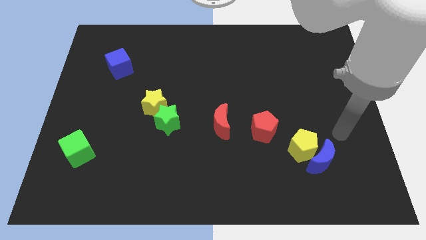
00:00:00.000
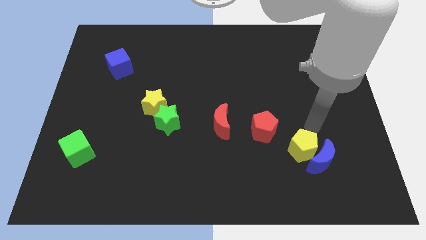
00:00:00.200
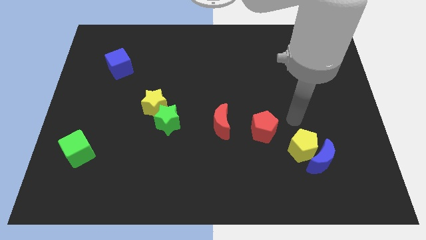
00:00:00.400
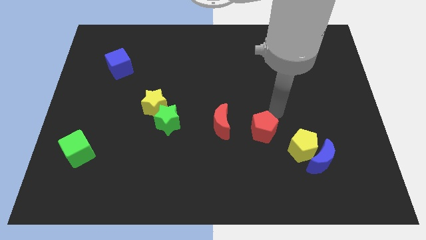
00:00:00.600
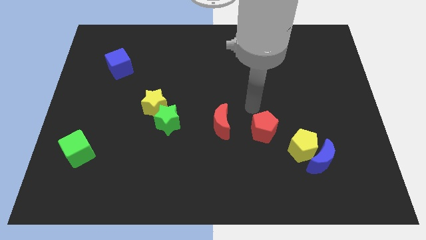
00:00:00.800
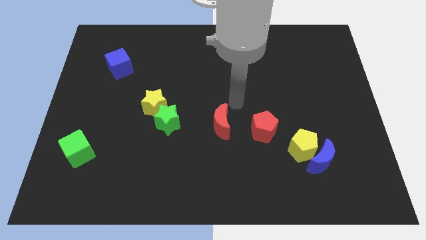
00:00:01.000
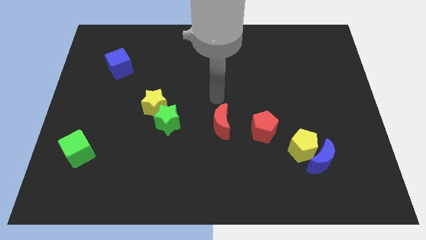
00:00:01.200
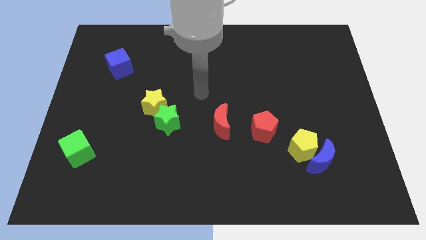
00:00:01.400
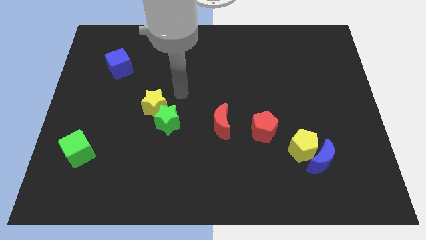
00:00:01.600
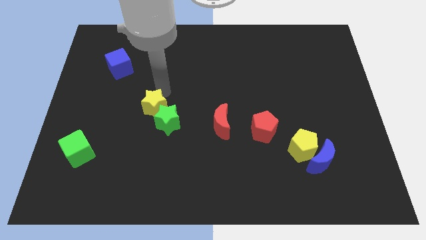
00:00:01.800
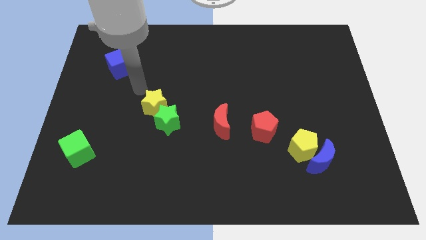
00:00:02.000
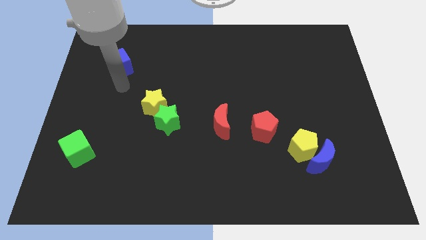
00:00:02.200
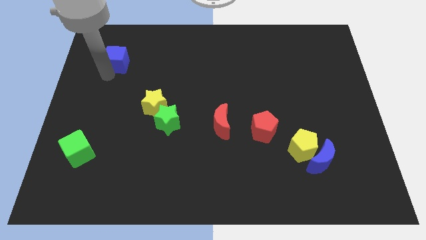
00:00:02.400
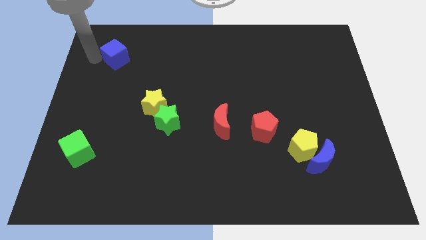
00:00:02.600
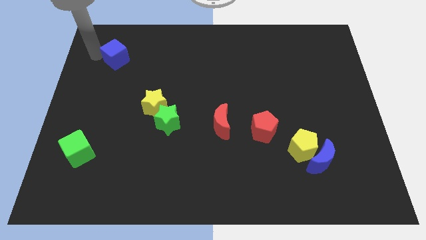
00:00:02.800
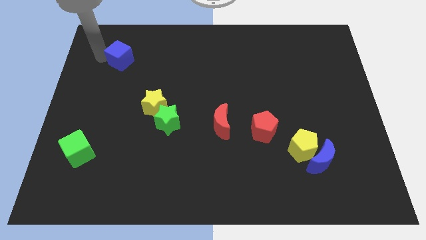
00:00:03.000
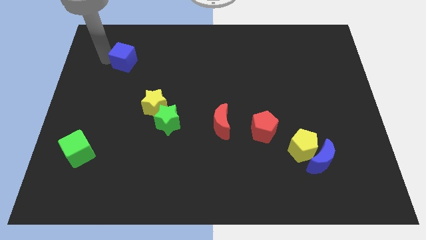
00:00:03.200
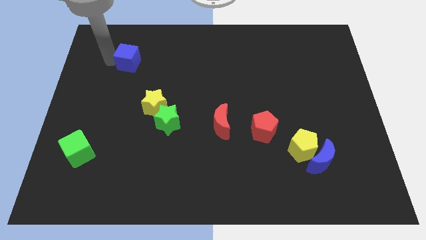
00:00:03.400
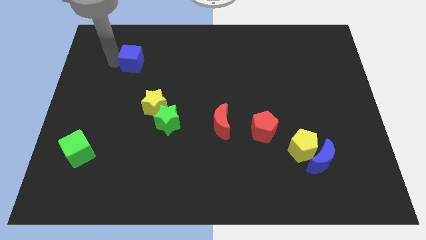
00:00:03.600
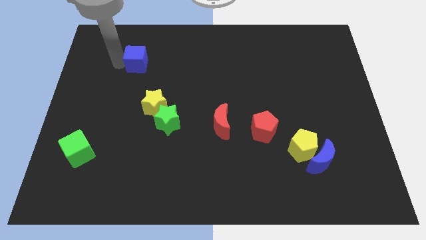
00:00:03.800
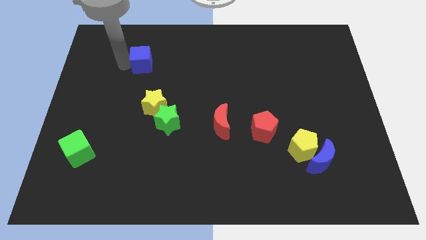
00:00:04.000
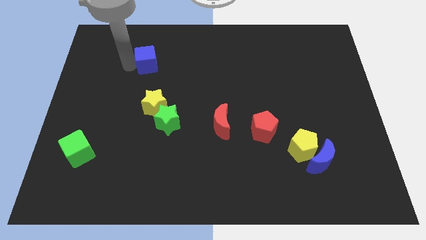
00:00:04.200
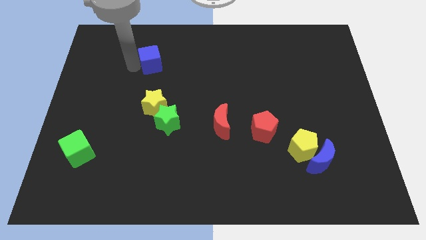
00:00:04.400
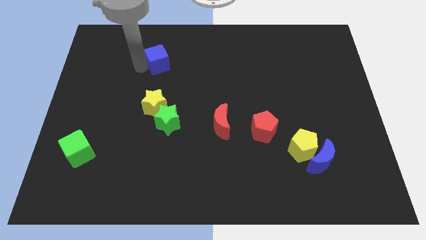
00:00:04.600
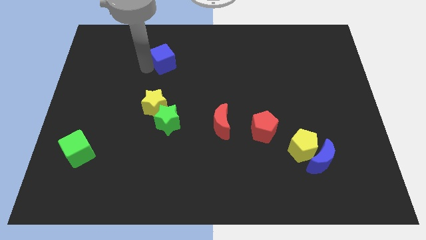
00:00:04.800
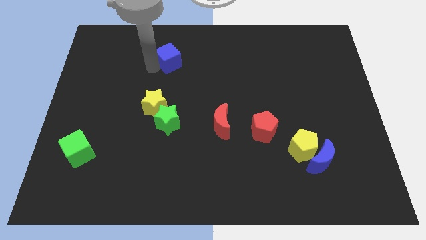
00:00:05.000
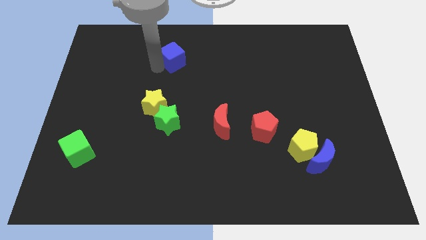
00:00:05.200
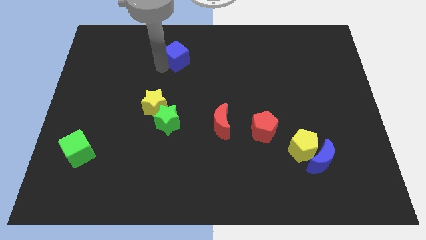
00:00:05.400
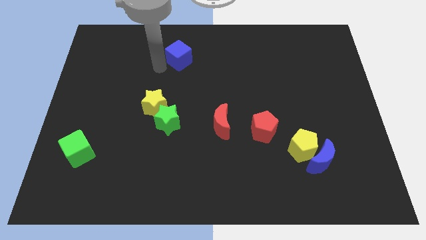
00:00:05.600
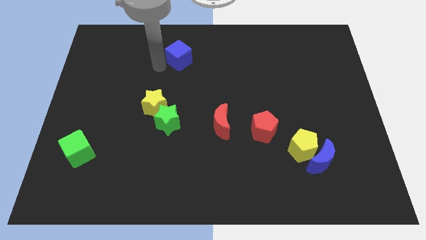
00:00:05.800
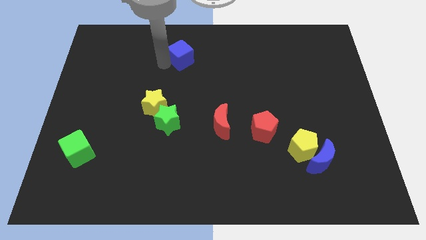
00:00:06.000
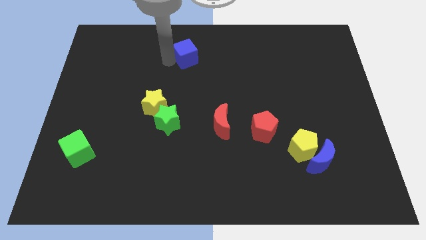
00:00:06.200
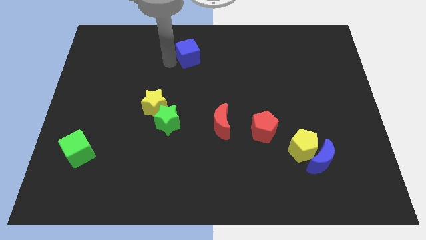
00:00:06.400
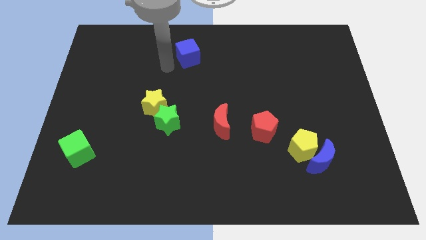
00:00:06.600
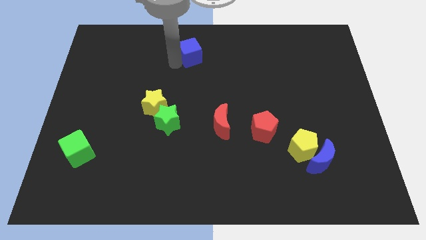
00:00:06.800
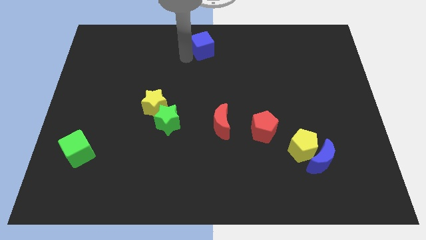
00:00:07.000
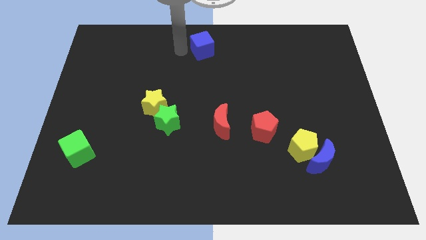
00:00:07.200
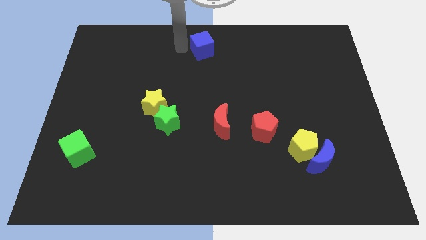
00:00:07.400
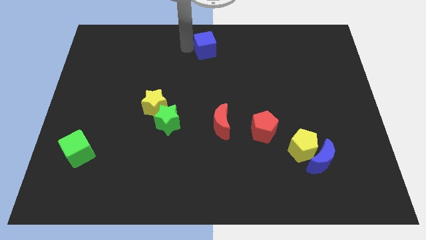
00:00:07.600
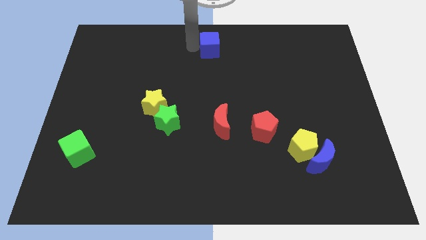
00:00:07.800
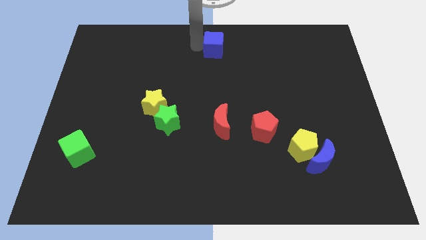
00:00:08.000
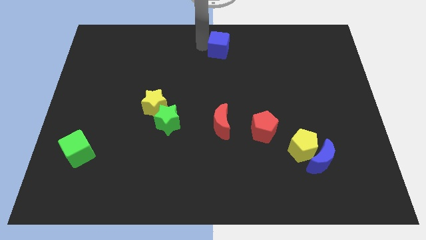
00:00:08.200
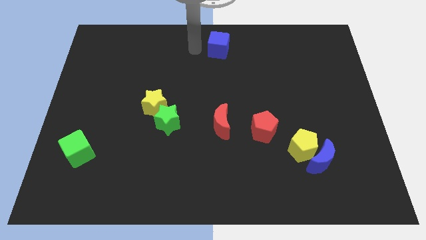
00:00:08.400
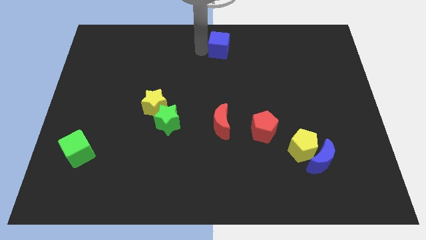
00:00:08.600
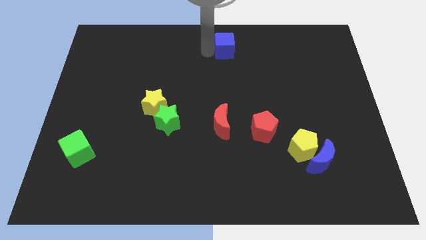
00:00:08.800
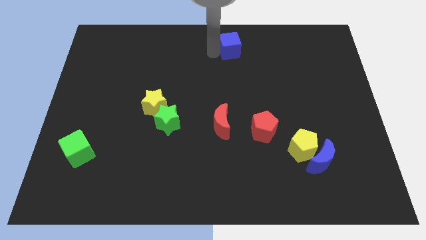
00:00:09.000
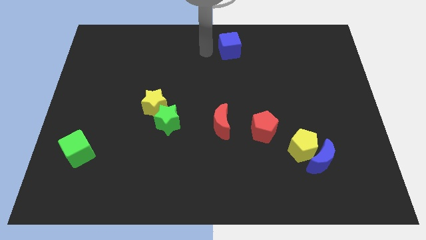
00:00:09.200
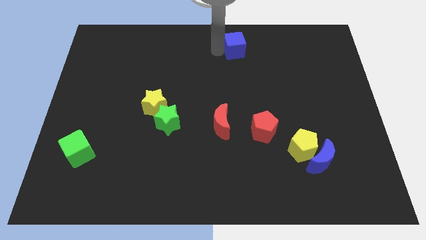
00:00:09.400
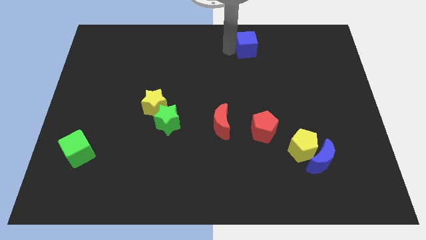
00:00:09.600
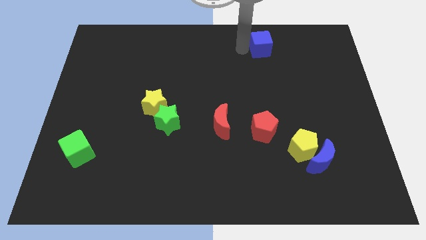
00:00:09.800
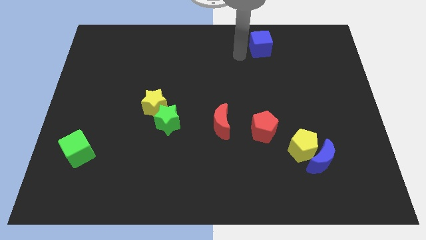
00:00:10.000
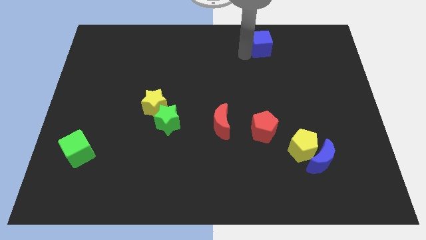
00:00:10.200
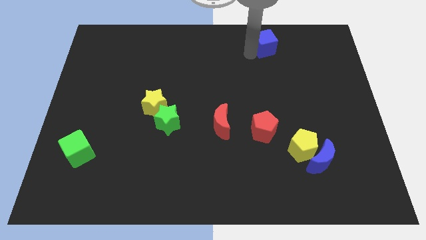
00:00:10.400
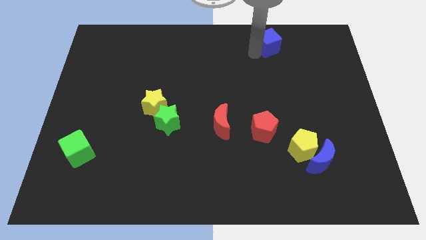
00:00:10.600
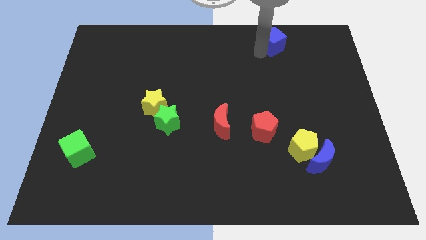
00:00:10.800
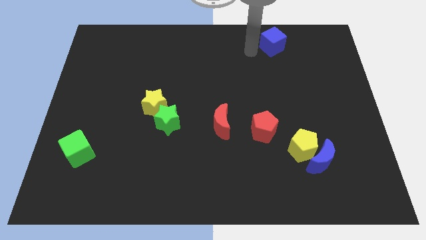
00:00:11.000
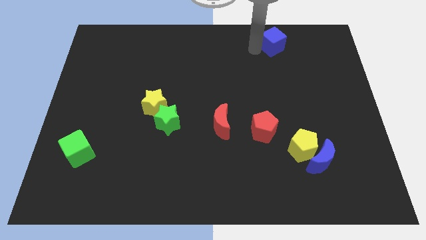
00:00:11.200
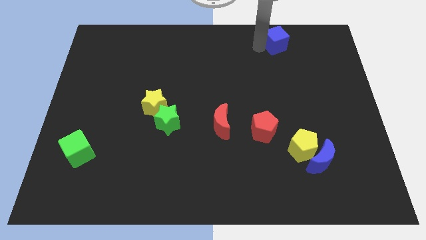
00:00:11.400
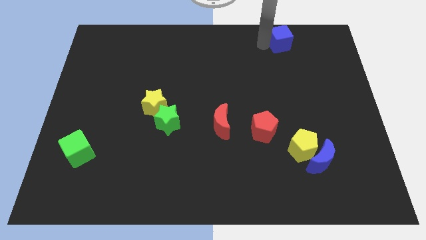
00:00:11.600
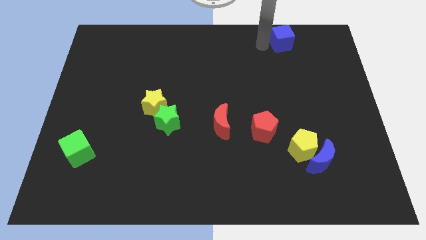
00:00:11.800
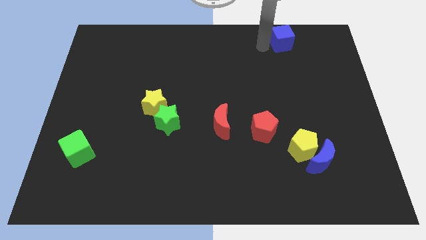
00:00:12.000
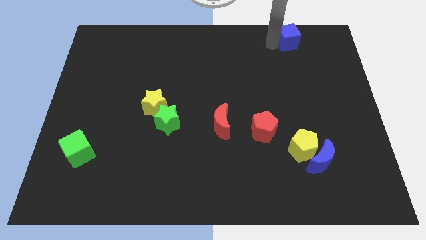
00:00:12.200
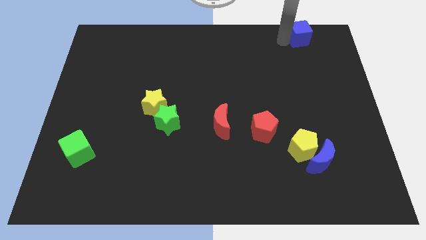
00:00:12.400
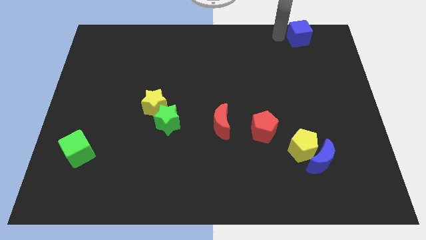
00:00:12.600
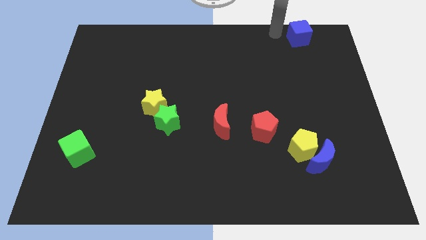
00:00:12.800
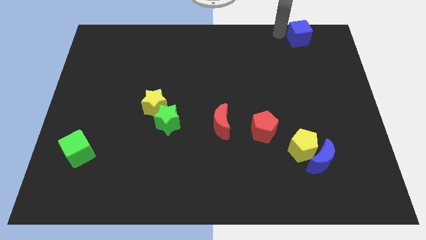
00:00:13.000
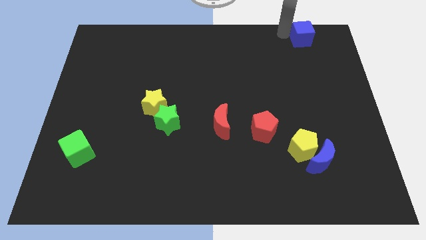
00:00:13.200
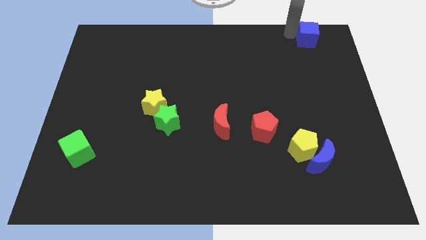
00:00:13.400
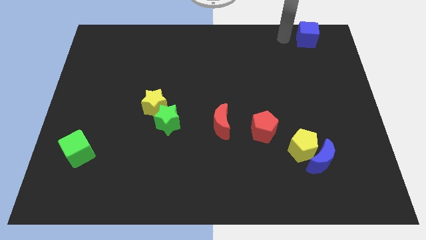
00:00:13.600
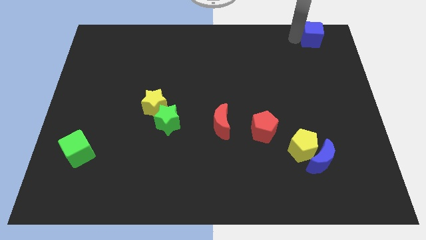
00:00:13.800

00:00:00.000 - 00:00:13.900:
move the blue cube to the upper right corner
